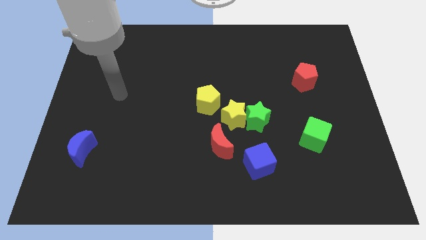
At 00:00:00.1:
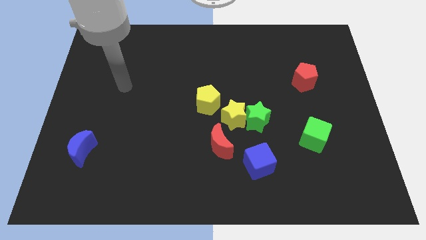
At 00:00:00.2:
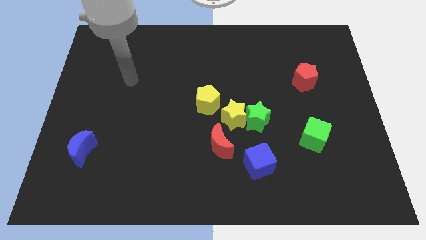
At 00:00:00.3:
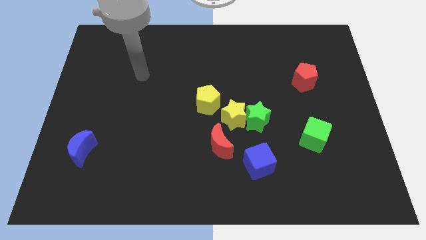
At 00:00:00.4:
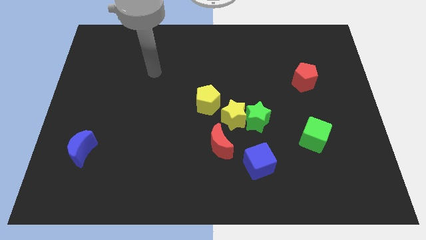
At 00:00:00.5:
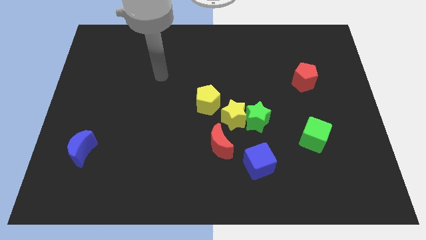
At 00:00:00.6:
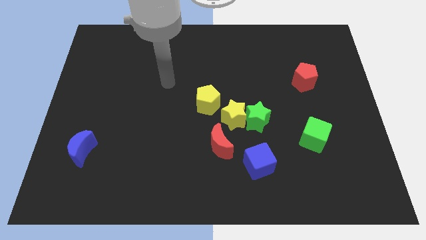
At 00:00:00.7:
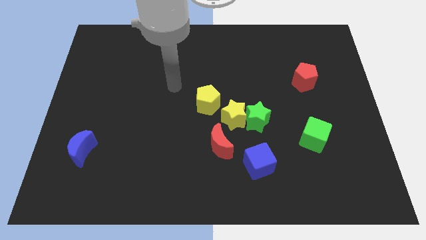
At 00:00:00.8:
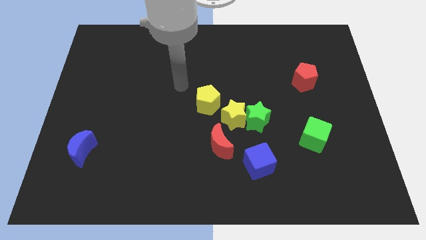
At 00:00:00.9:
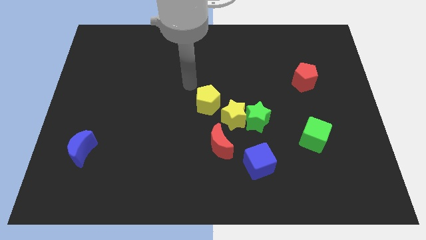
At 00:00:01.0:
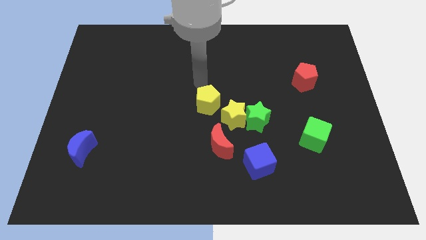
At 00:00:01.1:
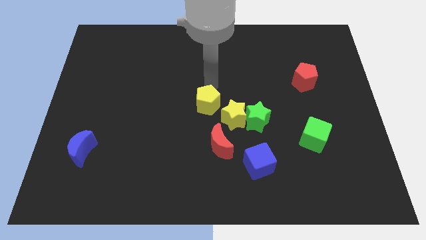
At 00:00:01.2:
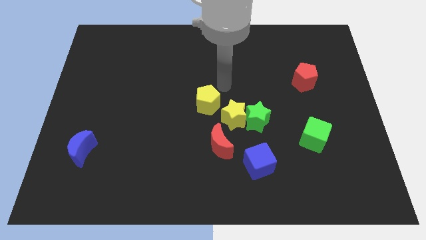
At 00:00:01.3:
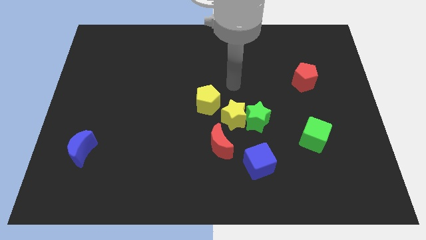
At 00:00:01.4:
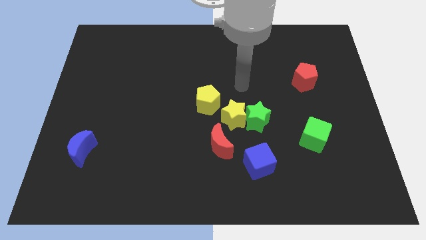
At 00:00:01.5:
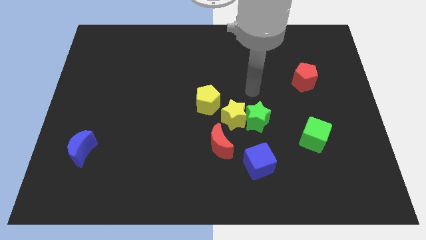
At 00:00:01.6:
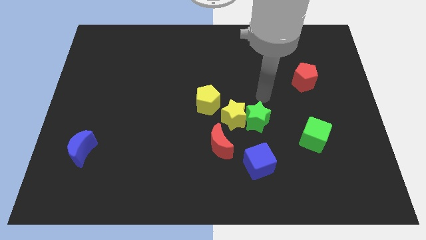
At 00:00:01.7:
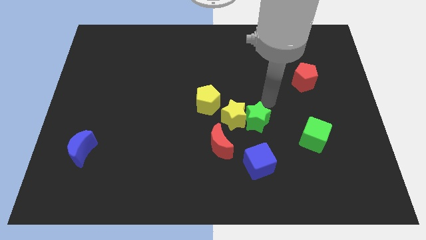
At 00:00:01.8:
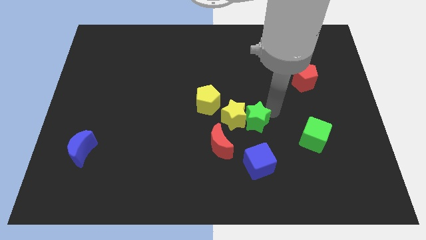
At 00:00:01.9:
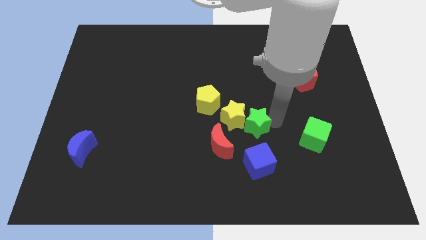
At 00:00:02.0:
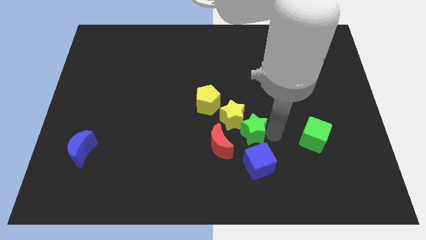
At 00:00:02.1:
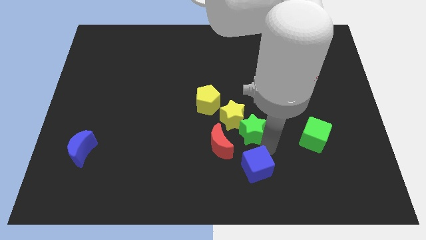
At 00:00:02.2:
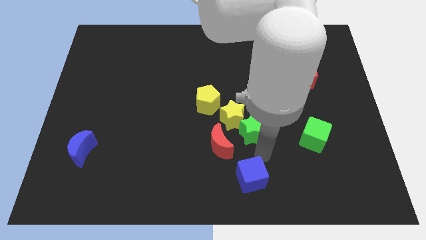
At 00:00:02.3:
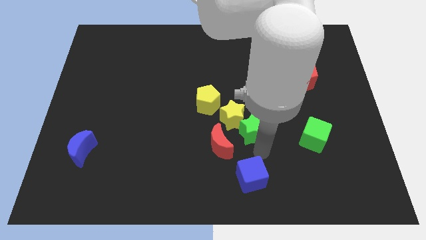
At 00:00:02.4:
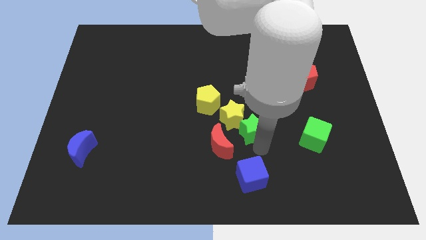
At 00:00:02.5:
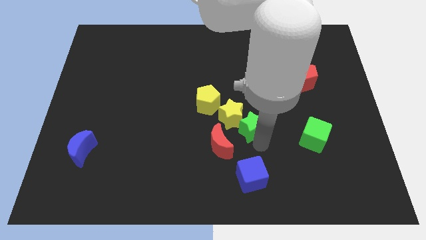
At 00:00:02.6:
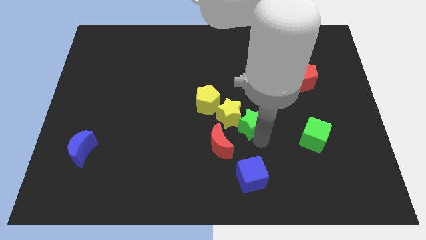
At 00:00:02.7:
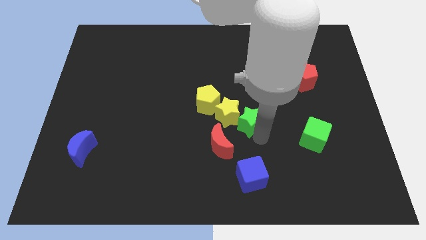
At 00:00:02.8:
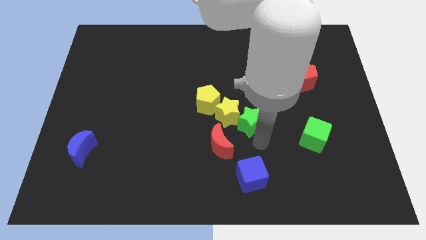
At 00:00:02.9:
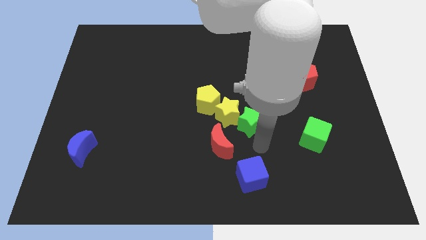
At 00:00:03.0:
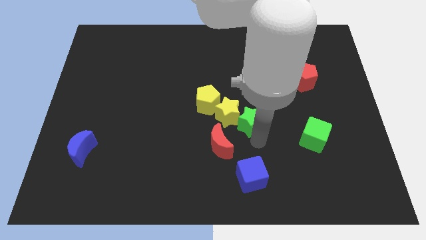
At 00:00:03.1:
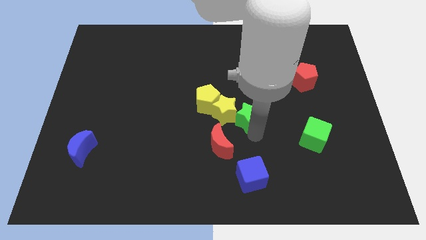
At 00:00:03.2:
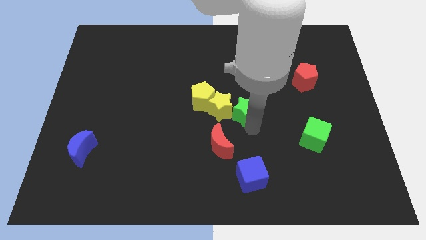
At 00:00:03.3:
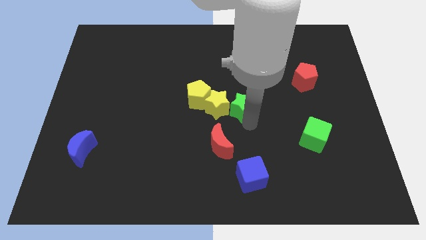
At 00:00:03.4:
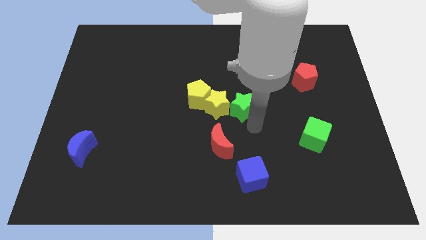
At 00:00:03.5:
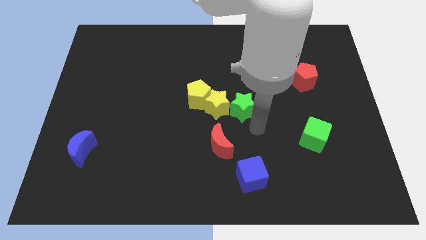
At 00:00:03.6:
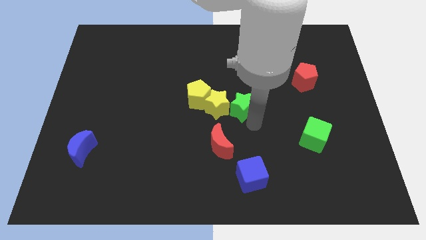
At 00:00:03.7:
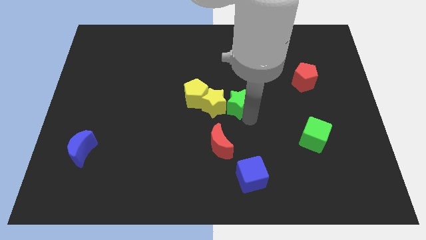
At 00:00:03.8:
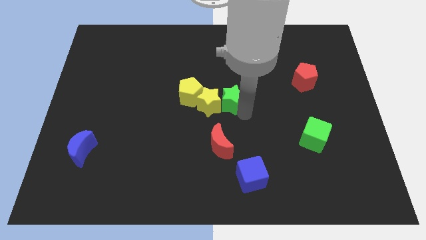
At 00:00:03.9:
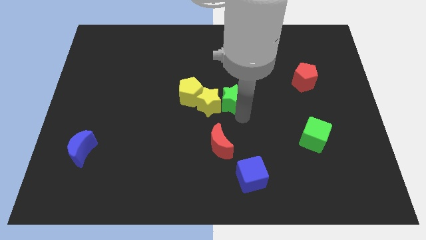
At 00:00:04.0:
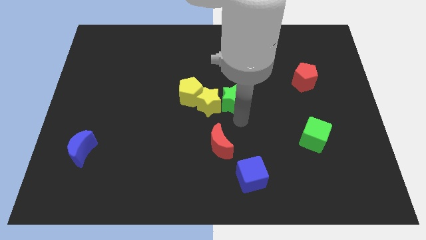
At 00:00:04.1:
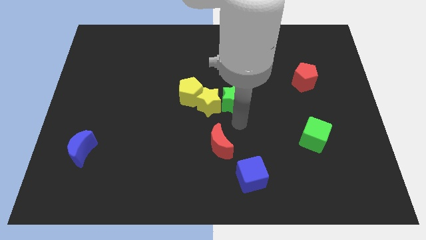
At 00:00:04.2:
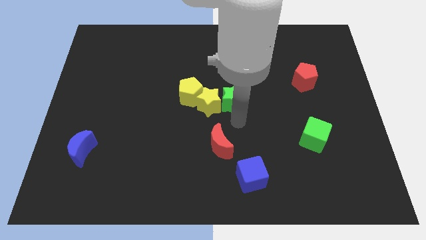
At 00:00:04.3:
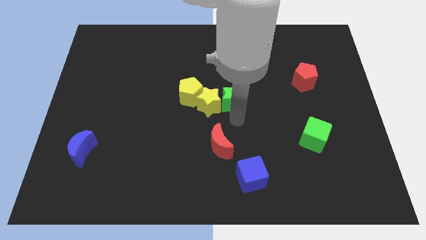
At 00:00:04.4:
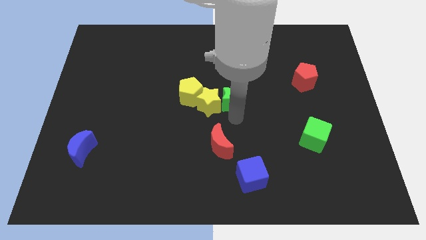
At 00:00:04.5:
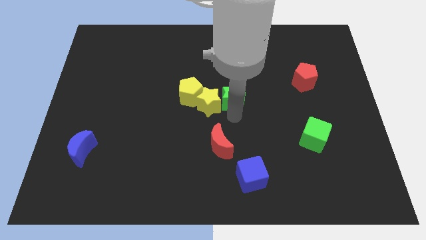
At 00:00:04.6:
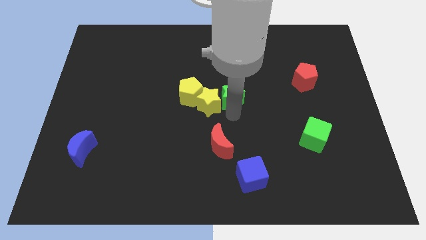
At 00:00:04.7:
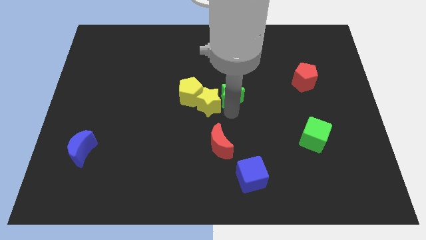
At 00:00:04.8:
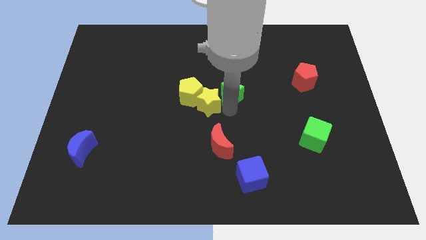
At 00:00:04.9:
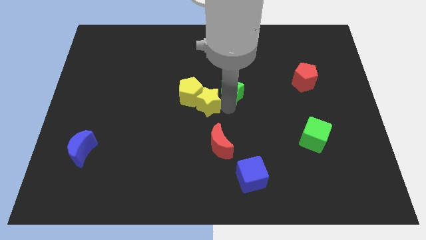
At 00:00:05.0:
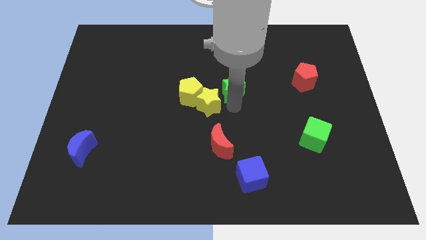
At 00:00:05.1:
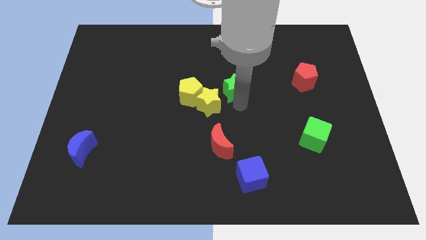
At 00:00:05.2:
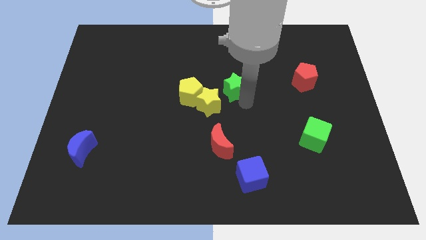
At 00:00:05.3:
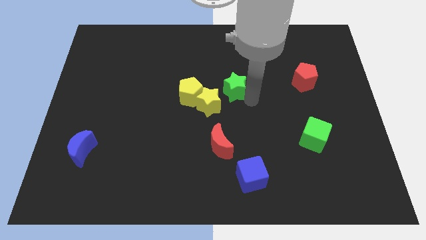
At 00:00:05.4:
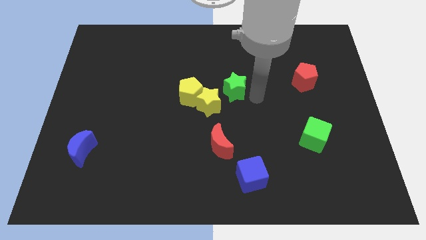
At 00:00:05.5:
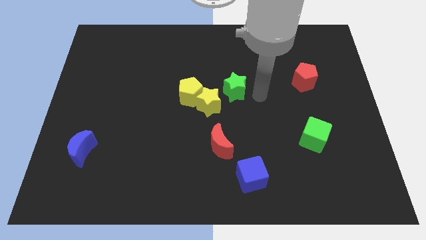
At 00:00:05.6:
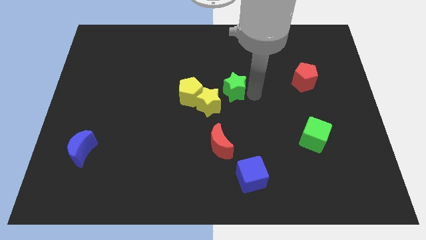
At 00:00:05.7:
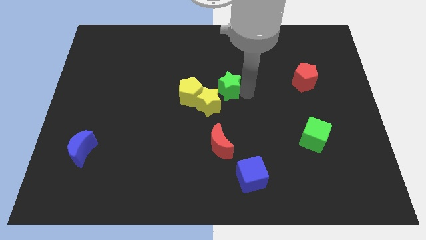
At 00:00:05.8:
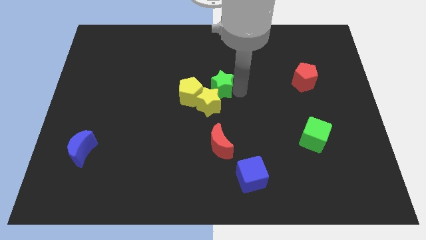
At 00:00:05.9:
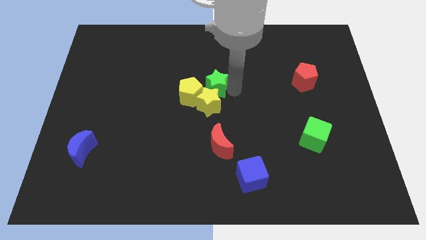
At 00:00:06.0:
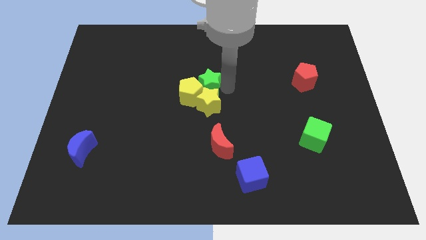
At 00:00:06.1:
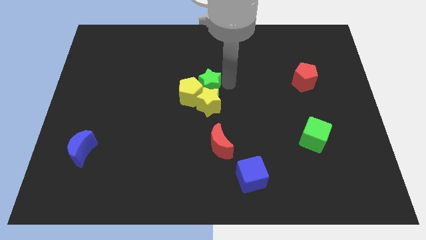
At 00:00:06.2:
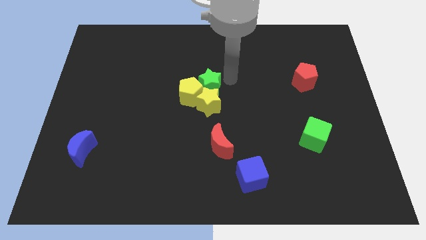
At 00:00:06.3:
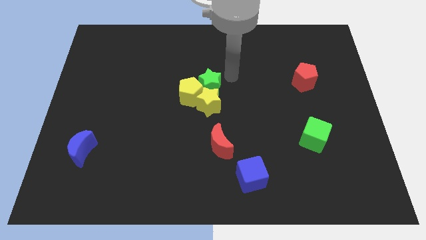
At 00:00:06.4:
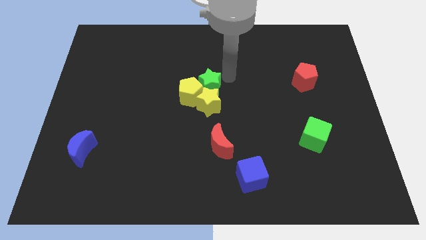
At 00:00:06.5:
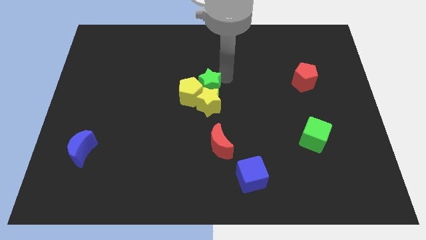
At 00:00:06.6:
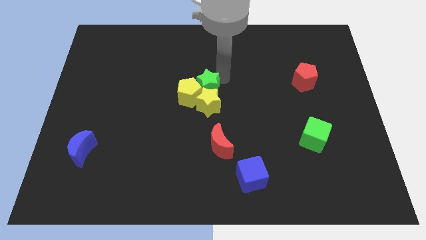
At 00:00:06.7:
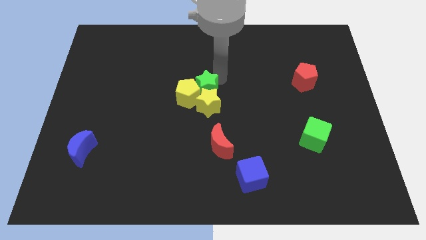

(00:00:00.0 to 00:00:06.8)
slide the green star a little to the left

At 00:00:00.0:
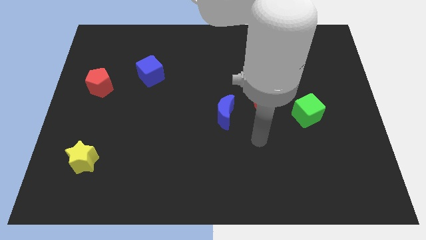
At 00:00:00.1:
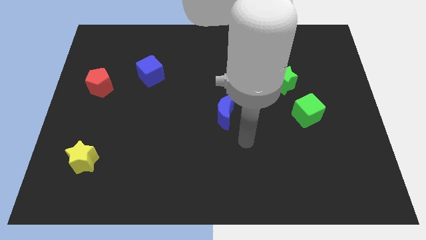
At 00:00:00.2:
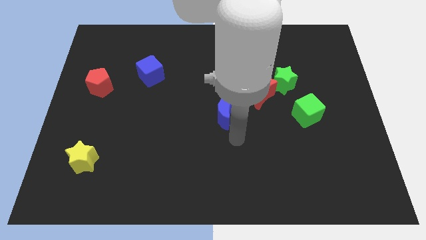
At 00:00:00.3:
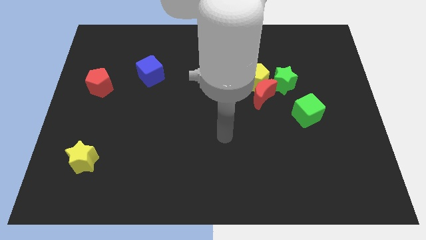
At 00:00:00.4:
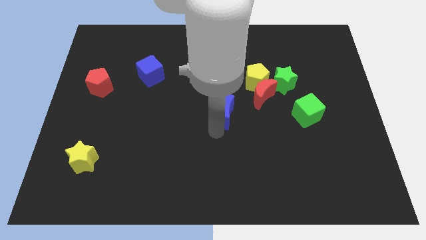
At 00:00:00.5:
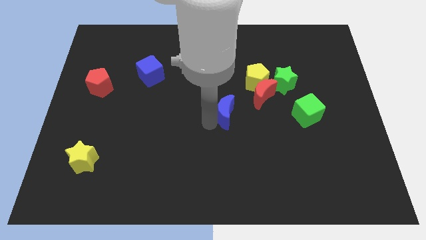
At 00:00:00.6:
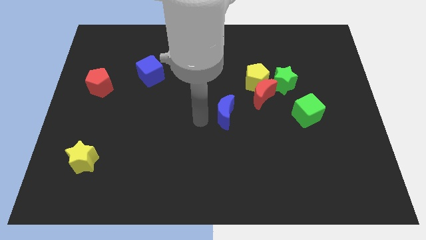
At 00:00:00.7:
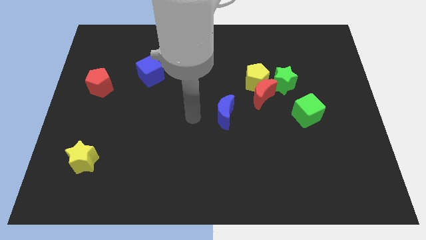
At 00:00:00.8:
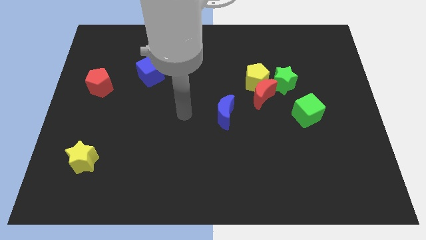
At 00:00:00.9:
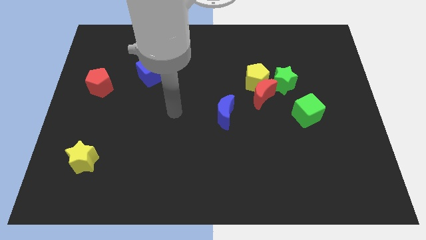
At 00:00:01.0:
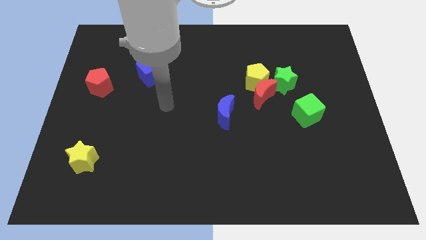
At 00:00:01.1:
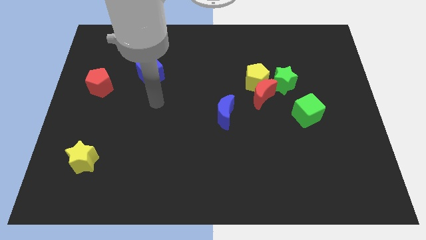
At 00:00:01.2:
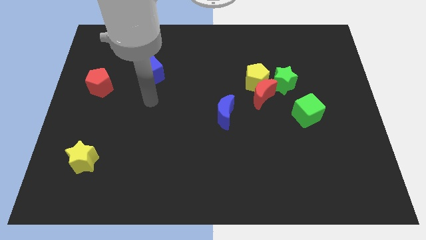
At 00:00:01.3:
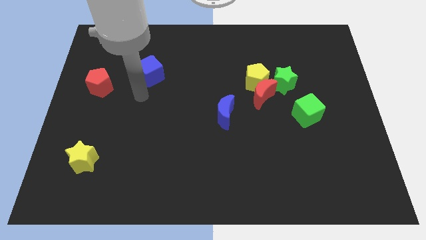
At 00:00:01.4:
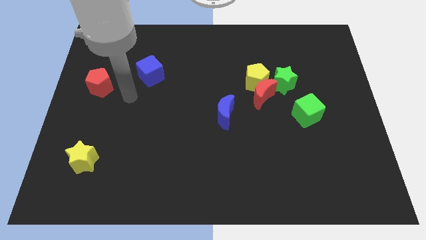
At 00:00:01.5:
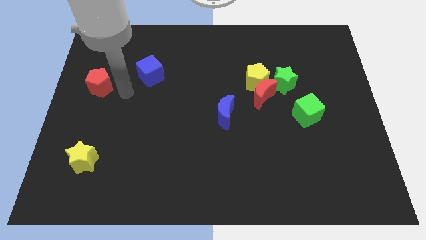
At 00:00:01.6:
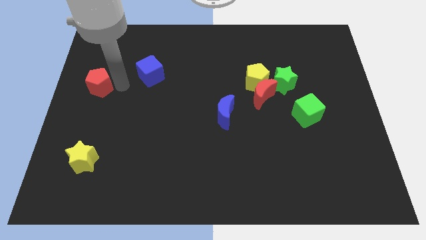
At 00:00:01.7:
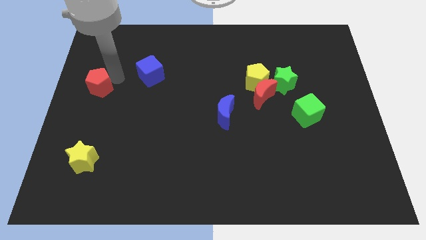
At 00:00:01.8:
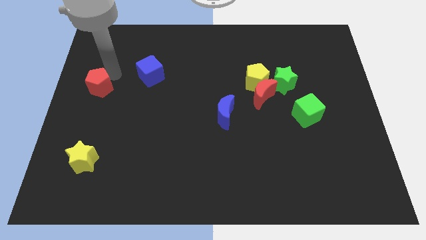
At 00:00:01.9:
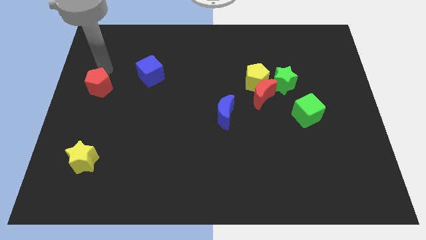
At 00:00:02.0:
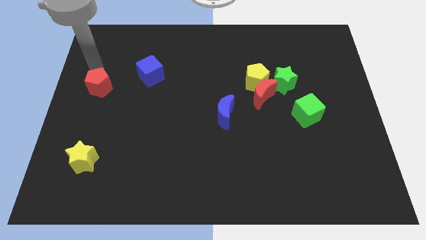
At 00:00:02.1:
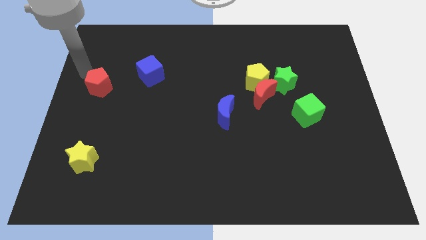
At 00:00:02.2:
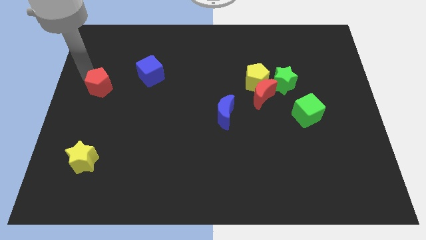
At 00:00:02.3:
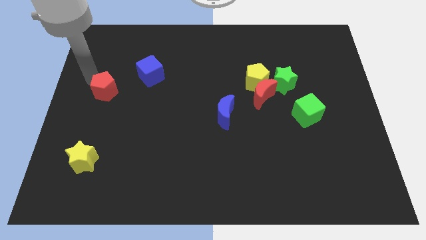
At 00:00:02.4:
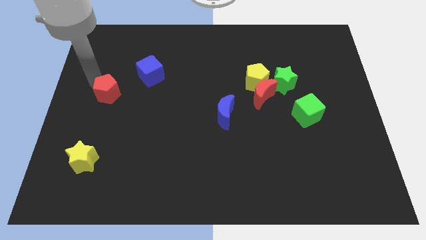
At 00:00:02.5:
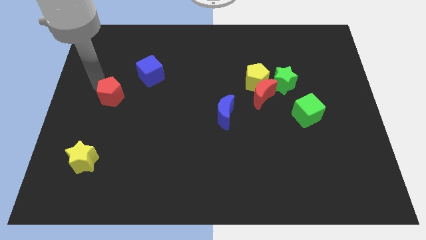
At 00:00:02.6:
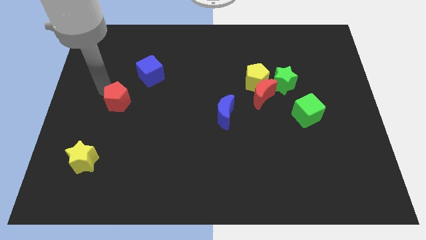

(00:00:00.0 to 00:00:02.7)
move the red pentagon down and then to the right a little bit
